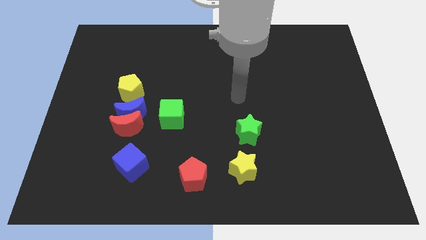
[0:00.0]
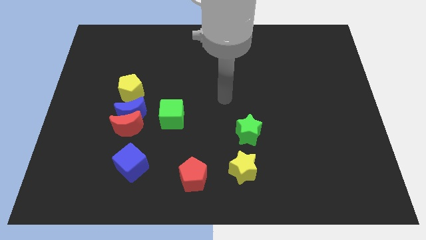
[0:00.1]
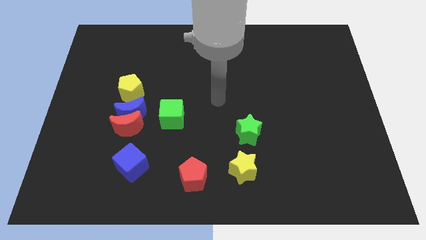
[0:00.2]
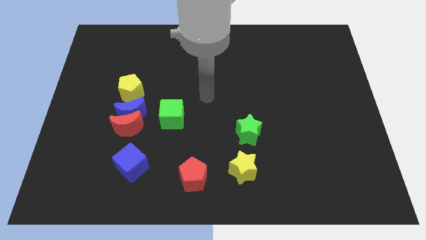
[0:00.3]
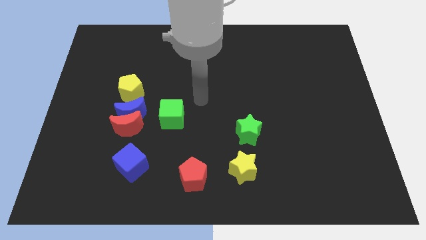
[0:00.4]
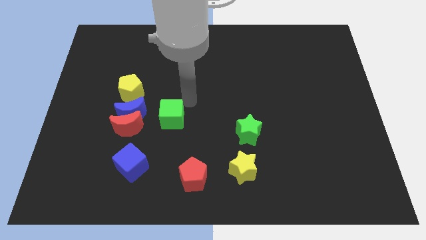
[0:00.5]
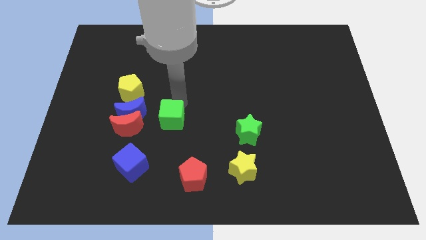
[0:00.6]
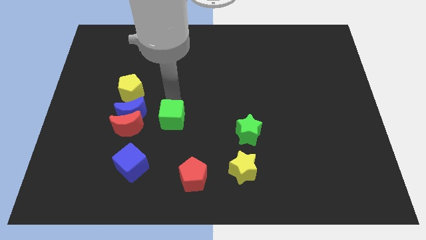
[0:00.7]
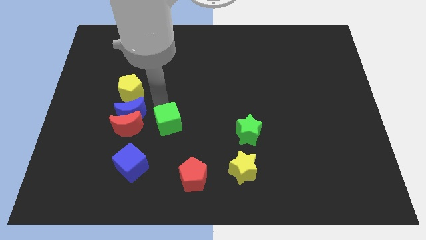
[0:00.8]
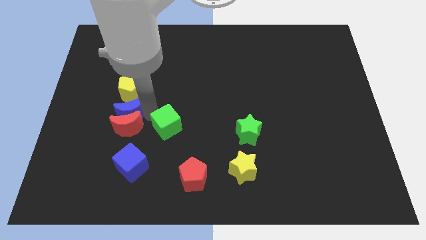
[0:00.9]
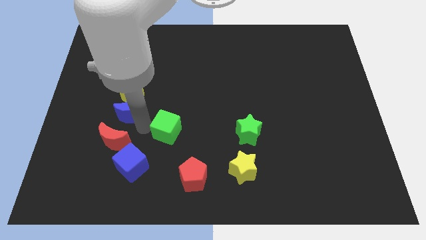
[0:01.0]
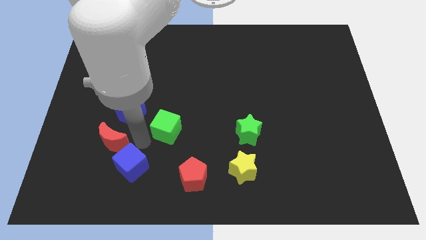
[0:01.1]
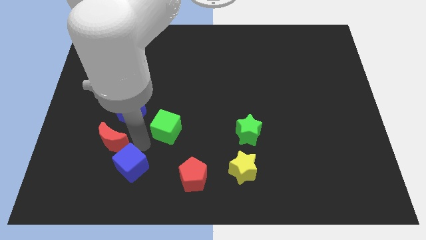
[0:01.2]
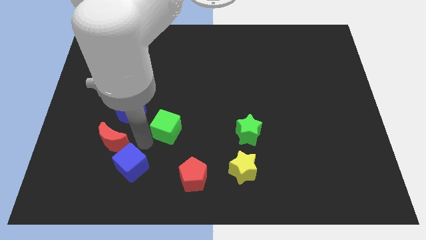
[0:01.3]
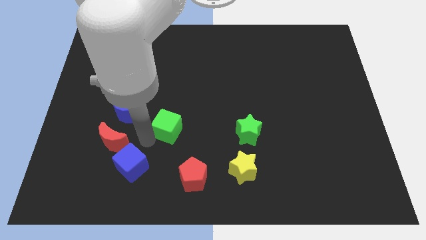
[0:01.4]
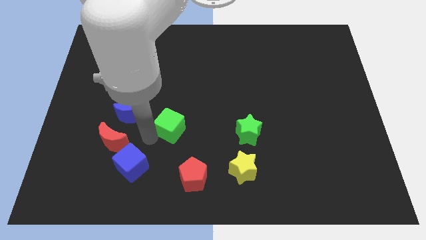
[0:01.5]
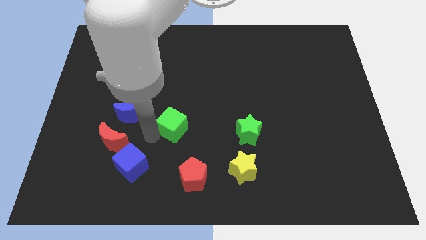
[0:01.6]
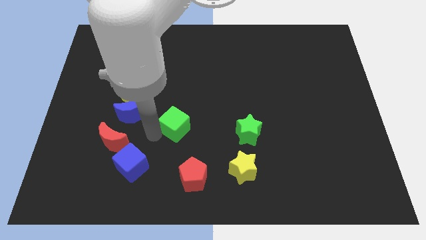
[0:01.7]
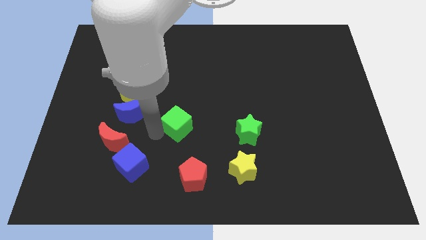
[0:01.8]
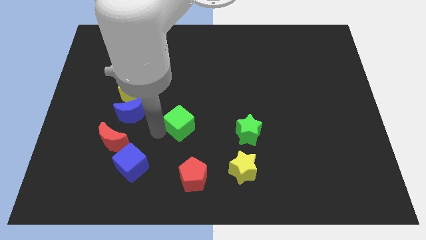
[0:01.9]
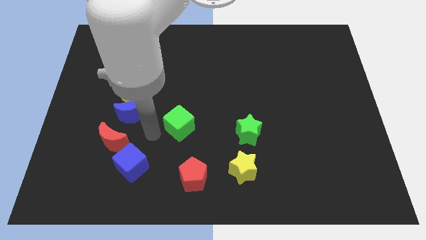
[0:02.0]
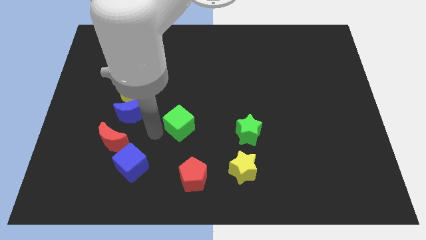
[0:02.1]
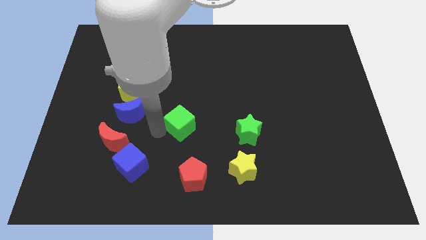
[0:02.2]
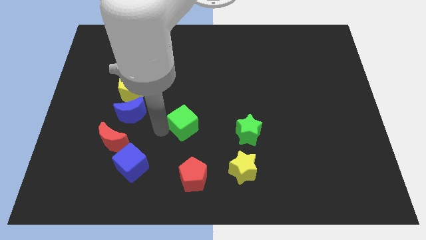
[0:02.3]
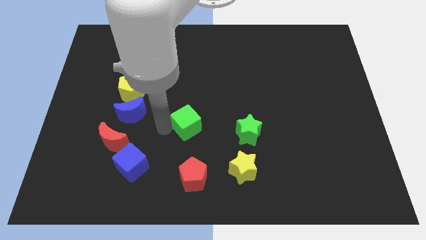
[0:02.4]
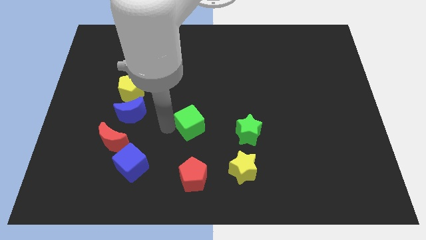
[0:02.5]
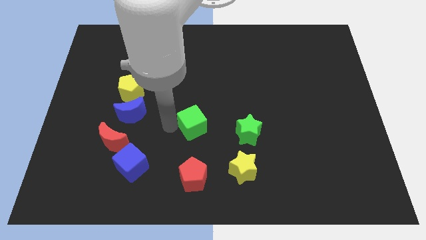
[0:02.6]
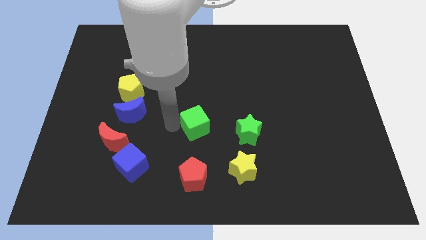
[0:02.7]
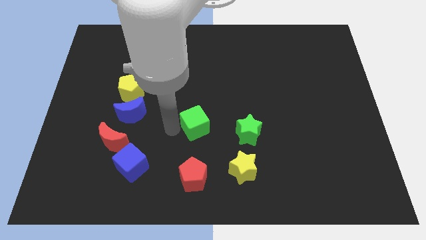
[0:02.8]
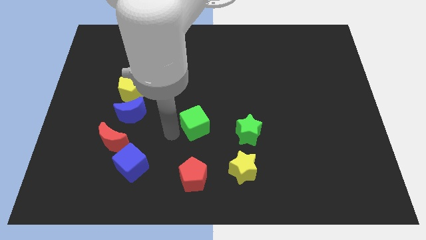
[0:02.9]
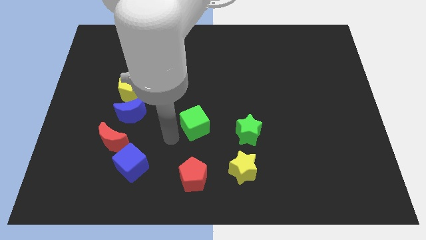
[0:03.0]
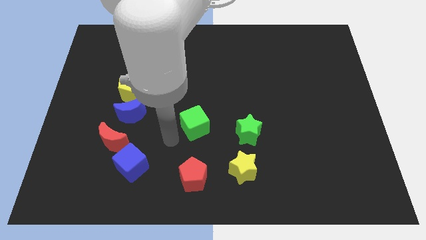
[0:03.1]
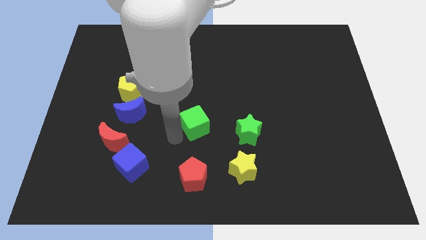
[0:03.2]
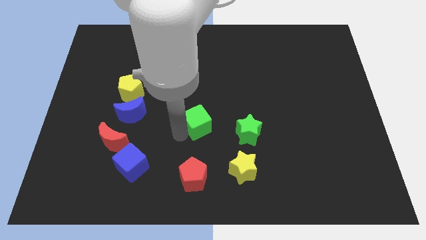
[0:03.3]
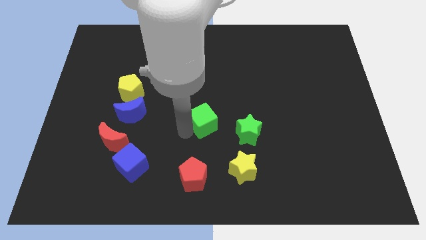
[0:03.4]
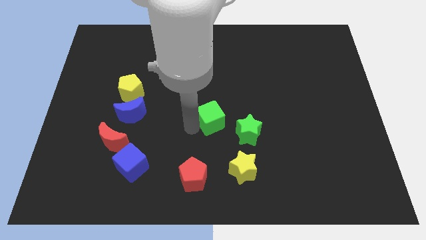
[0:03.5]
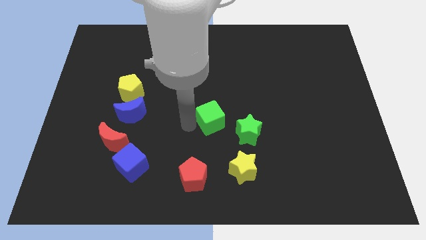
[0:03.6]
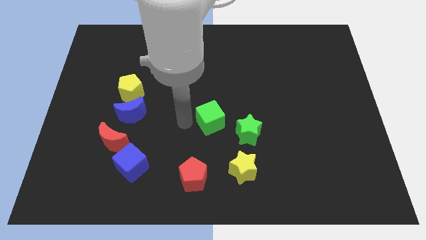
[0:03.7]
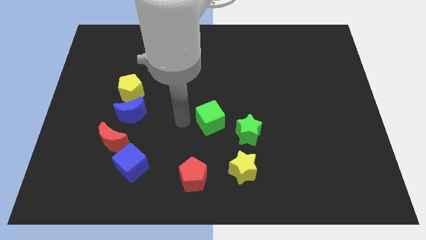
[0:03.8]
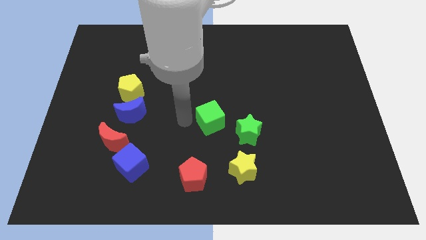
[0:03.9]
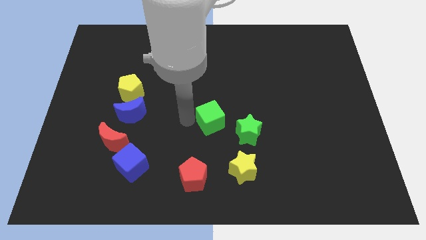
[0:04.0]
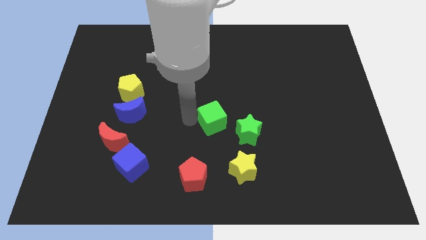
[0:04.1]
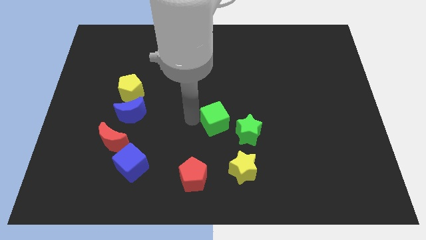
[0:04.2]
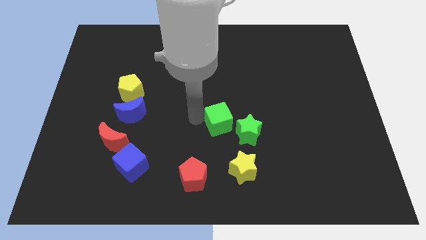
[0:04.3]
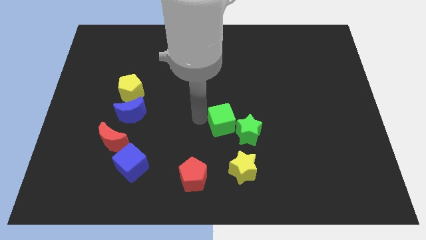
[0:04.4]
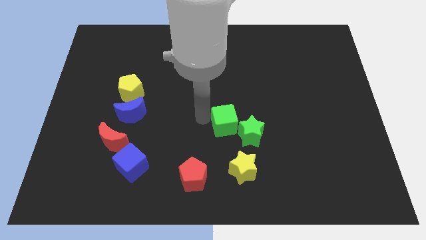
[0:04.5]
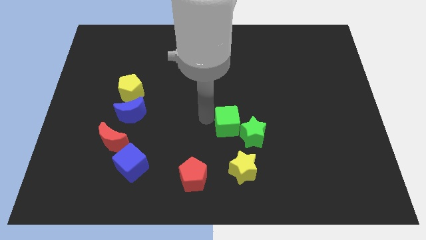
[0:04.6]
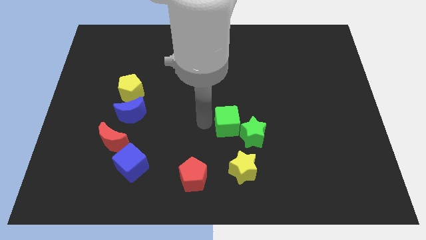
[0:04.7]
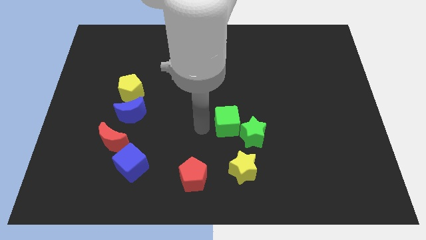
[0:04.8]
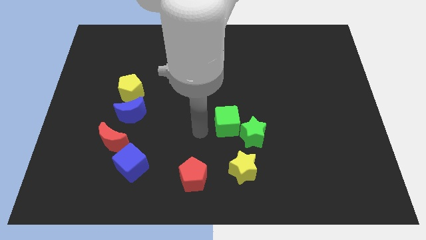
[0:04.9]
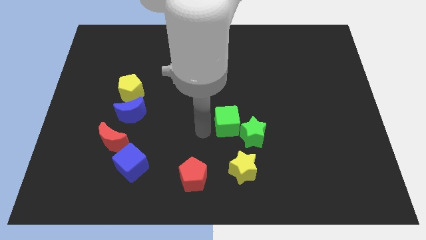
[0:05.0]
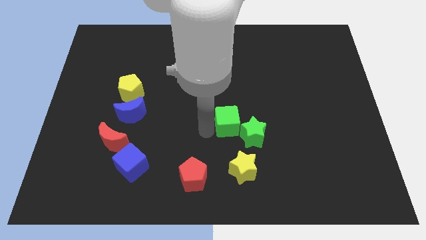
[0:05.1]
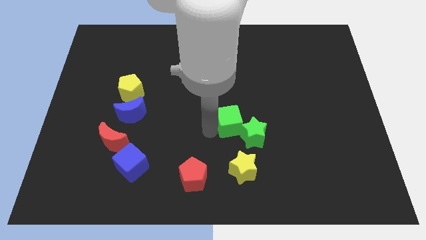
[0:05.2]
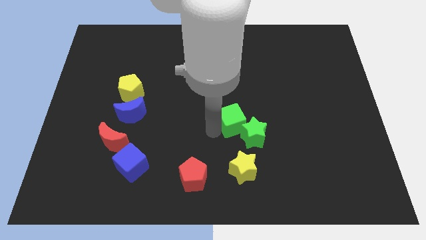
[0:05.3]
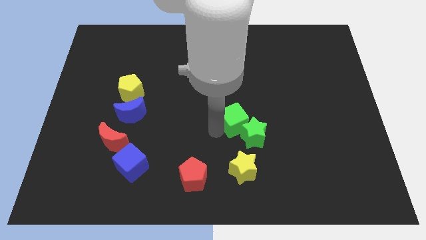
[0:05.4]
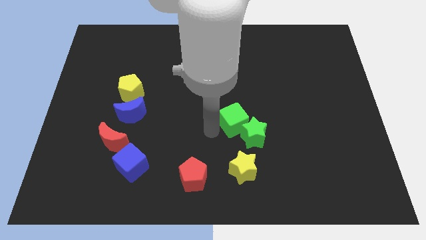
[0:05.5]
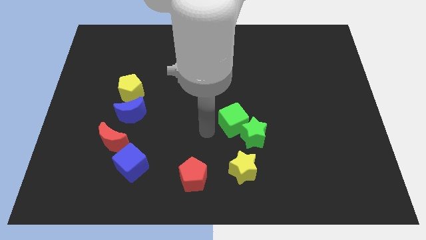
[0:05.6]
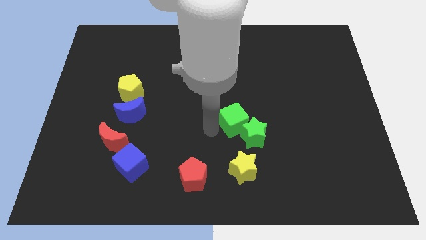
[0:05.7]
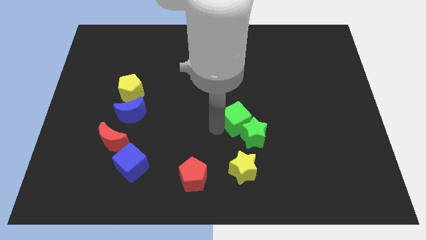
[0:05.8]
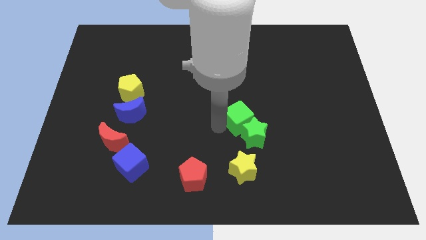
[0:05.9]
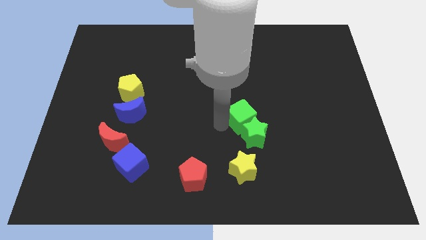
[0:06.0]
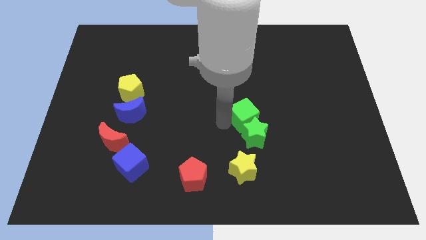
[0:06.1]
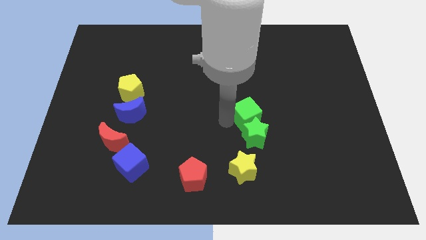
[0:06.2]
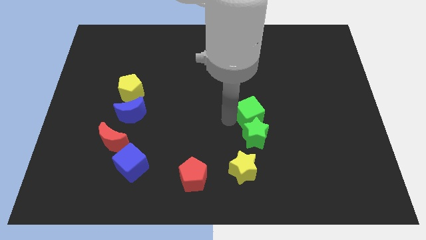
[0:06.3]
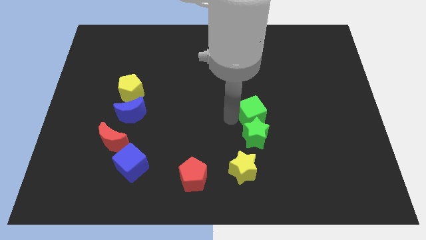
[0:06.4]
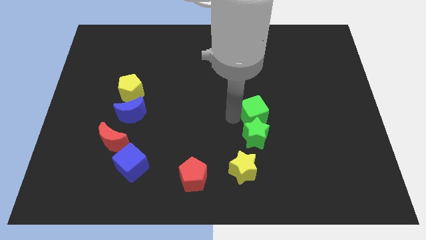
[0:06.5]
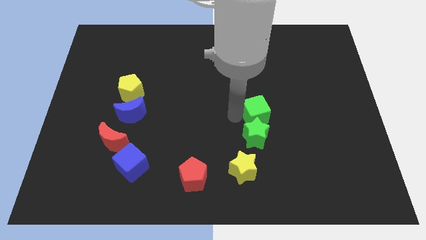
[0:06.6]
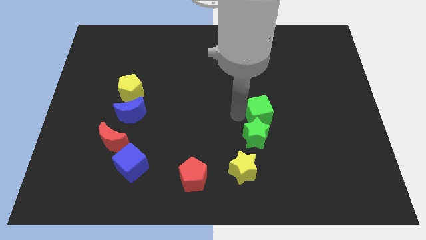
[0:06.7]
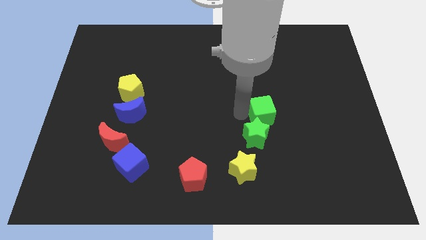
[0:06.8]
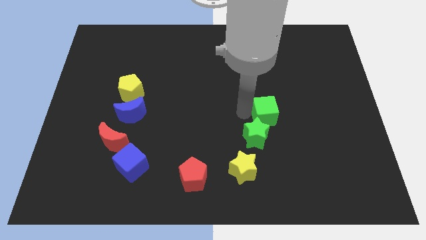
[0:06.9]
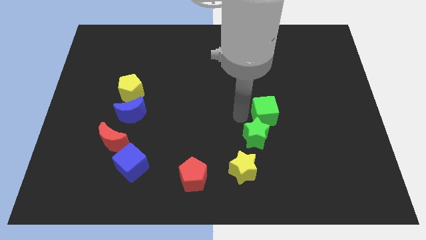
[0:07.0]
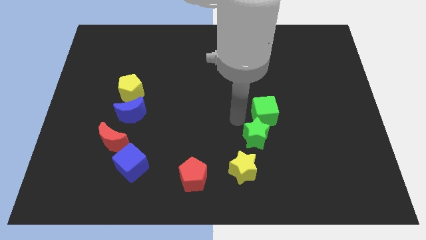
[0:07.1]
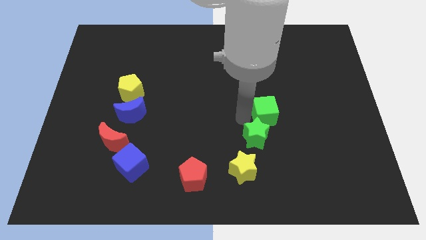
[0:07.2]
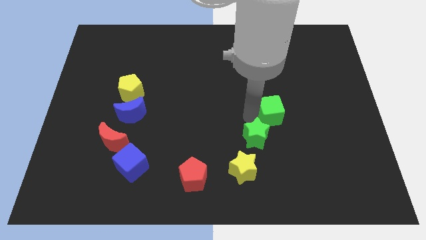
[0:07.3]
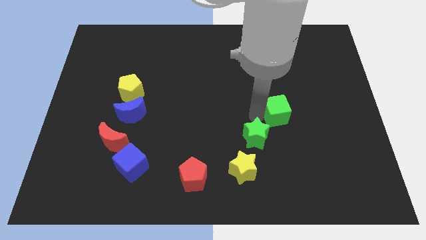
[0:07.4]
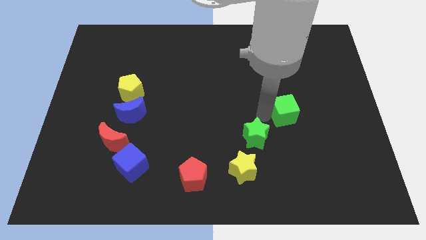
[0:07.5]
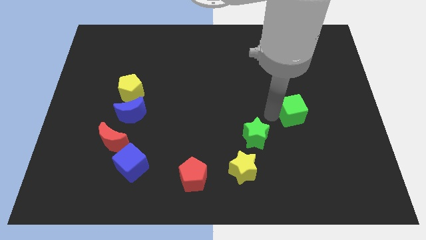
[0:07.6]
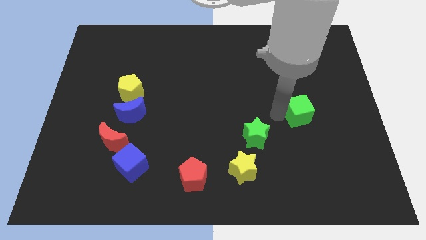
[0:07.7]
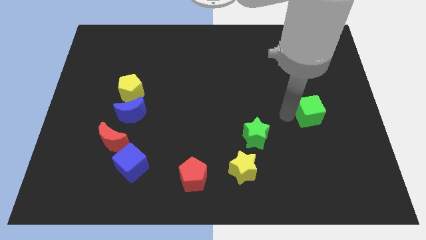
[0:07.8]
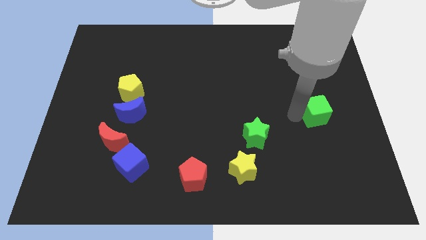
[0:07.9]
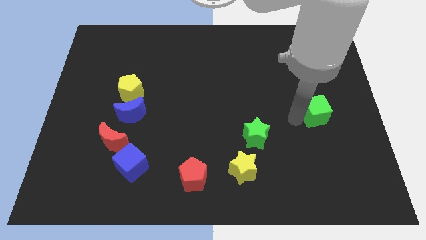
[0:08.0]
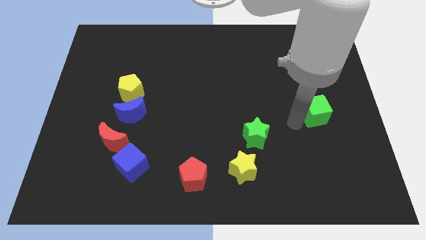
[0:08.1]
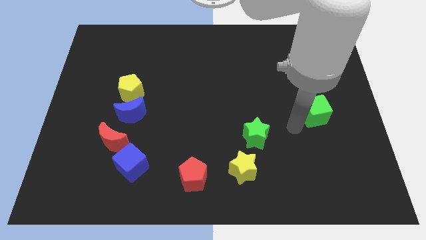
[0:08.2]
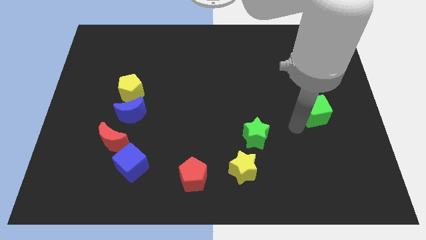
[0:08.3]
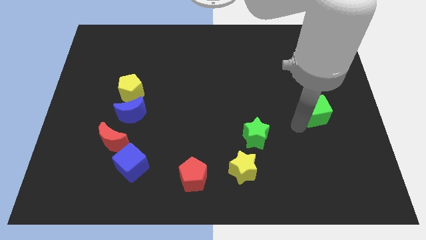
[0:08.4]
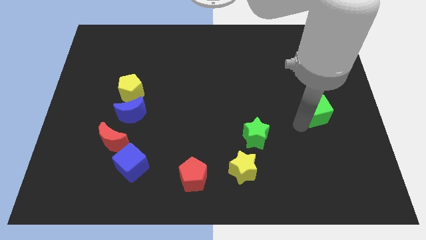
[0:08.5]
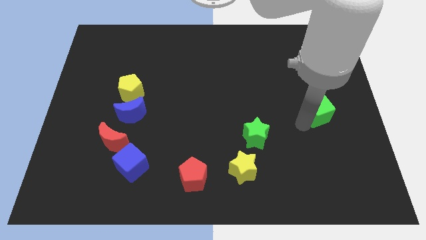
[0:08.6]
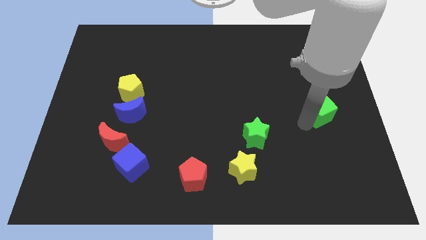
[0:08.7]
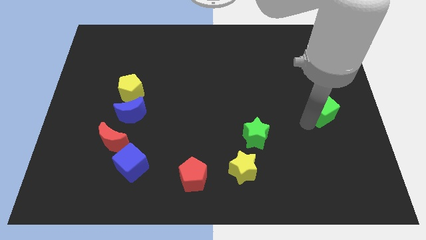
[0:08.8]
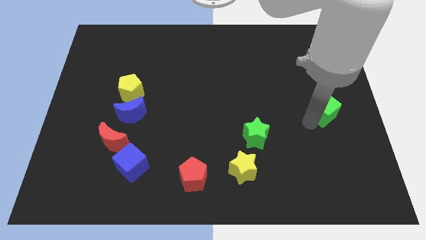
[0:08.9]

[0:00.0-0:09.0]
move the green cube to the center right
